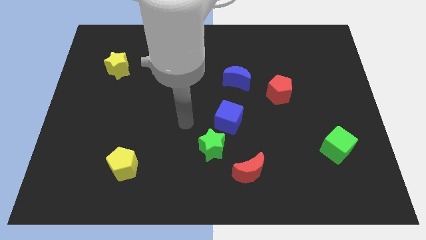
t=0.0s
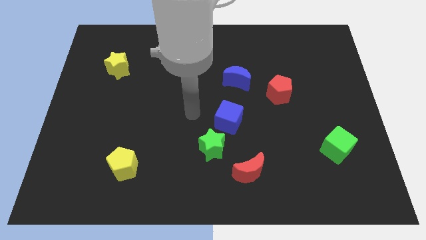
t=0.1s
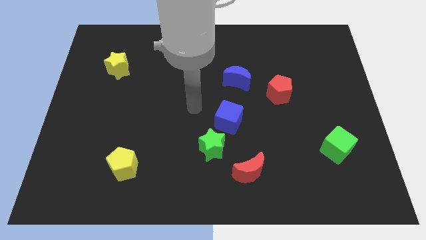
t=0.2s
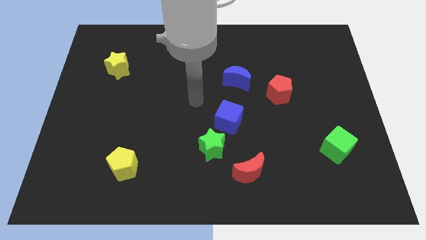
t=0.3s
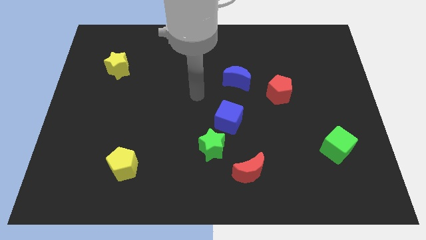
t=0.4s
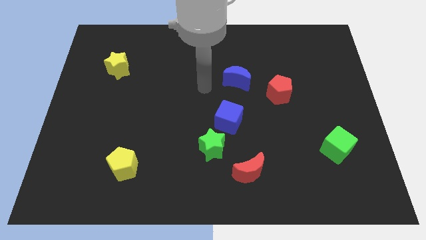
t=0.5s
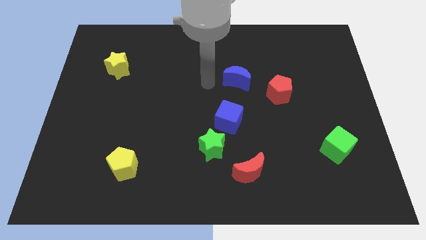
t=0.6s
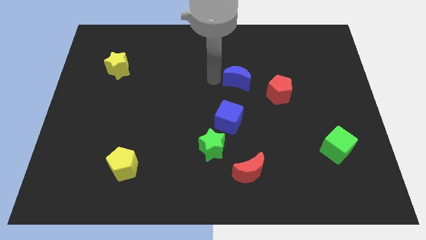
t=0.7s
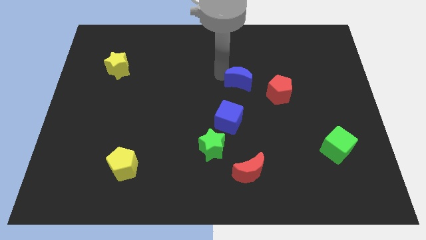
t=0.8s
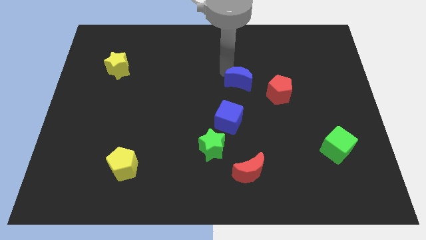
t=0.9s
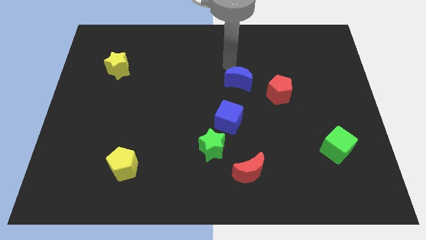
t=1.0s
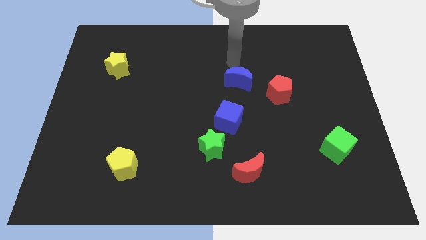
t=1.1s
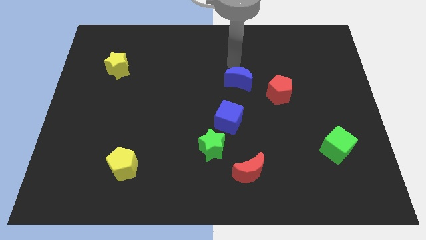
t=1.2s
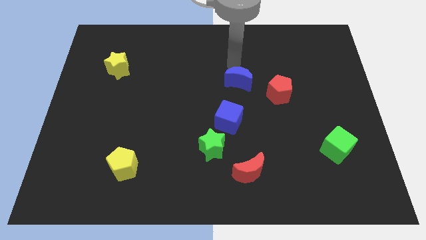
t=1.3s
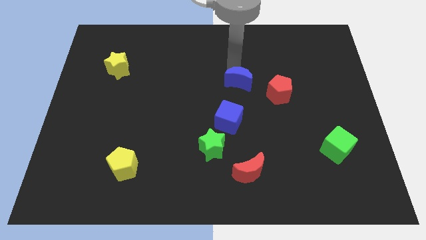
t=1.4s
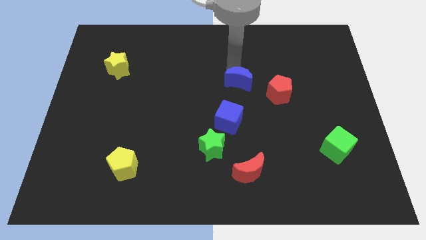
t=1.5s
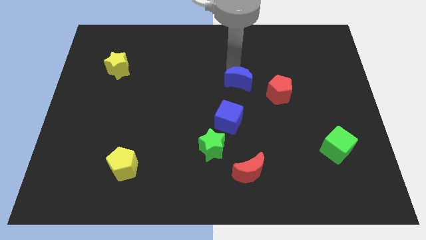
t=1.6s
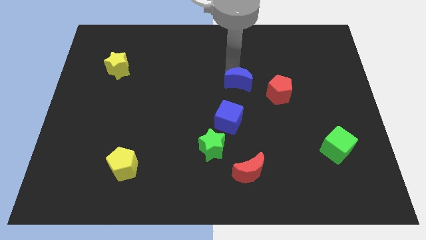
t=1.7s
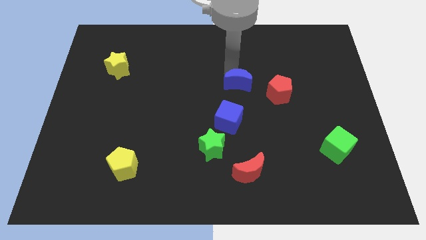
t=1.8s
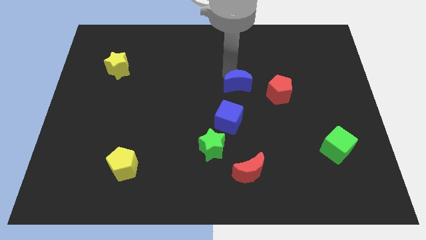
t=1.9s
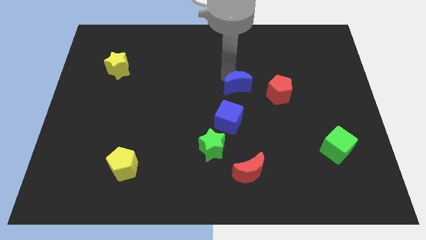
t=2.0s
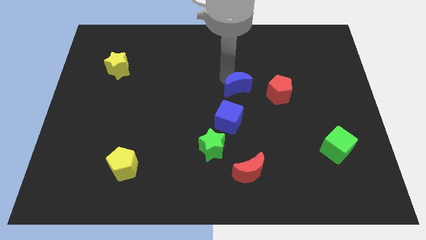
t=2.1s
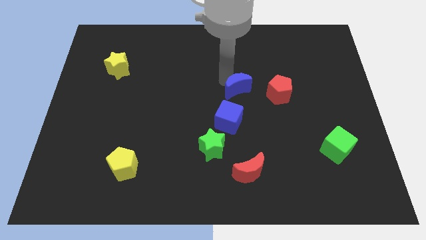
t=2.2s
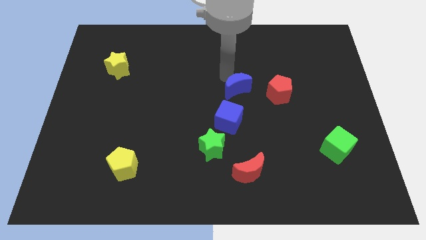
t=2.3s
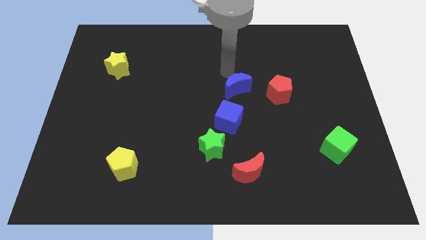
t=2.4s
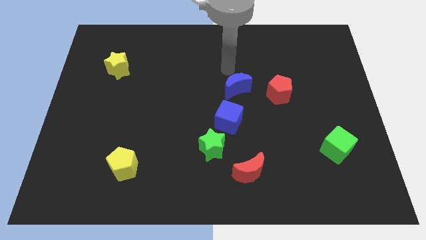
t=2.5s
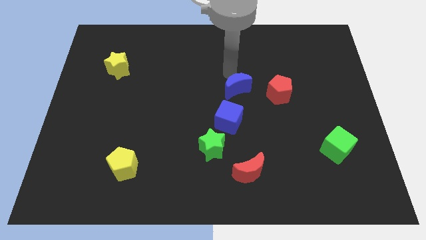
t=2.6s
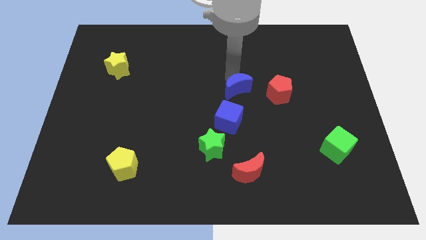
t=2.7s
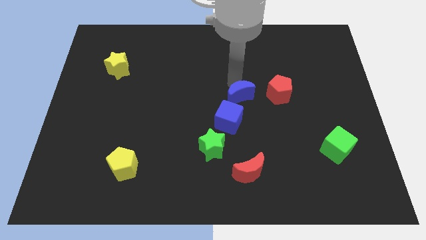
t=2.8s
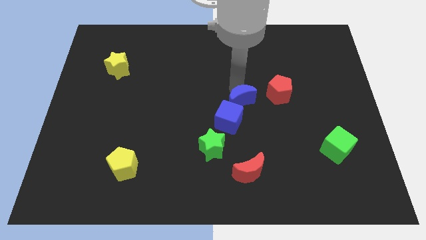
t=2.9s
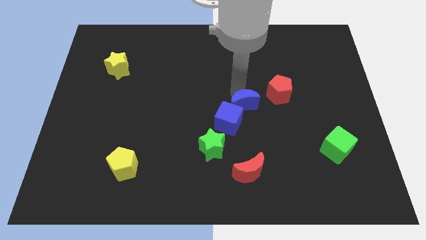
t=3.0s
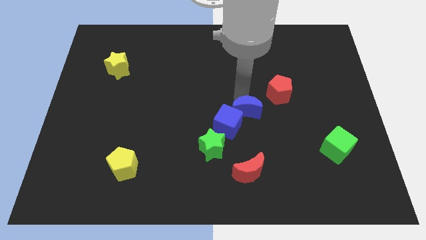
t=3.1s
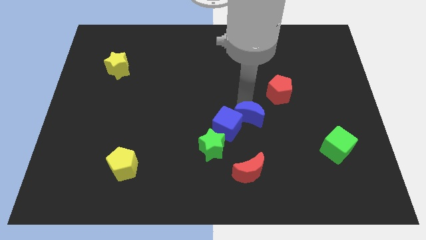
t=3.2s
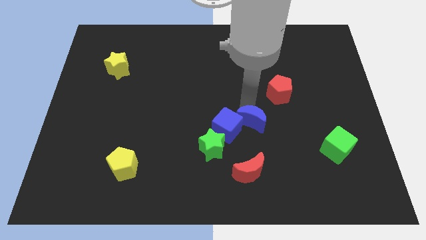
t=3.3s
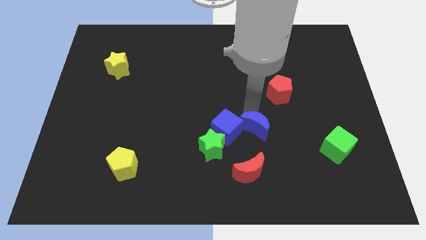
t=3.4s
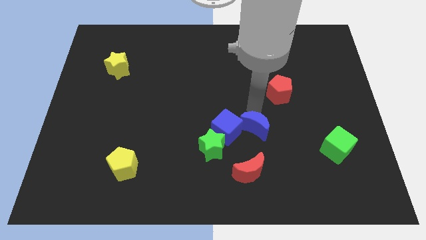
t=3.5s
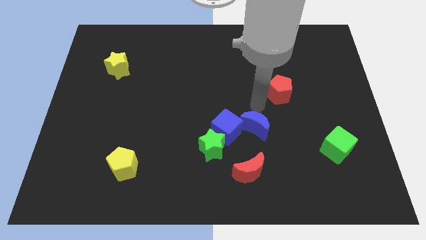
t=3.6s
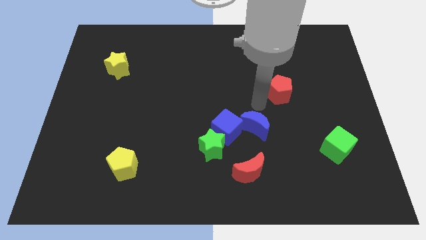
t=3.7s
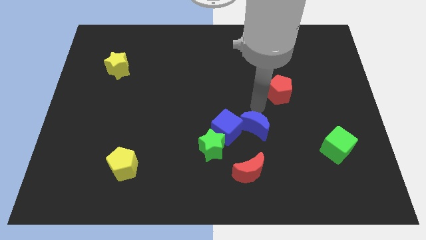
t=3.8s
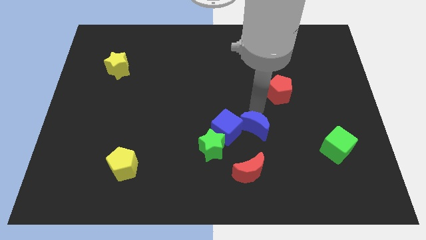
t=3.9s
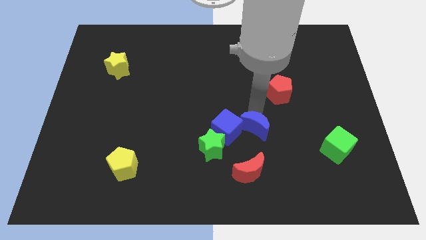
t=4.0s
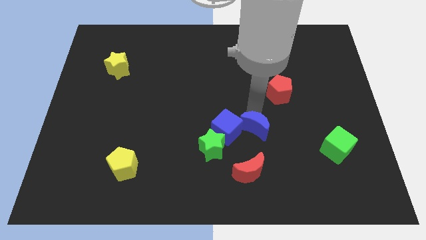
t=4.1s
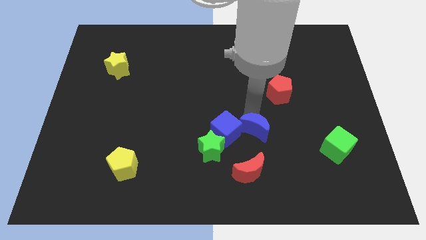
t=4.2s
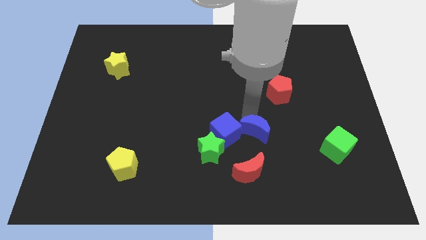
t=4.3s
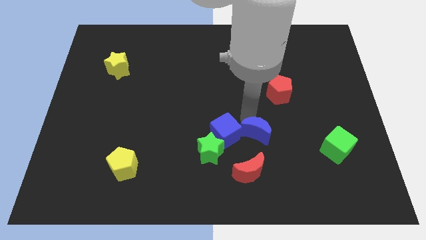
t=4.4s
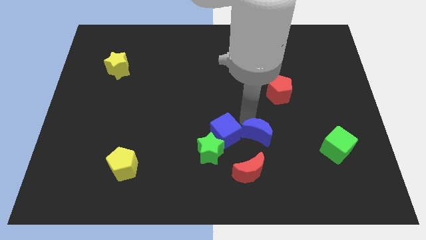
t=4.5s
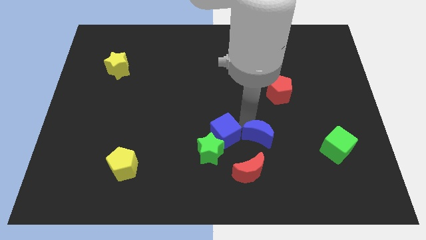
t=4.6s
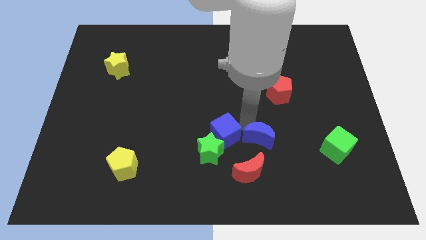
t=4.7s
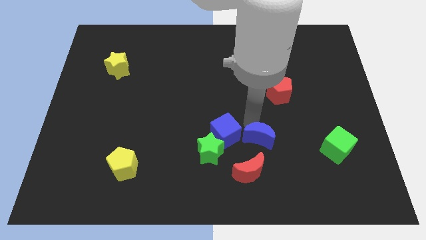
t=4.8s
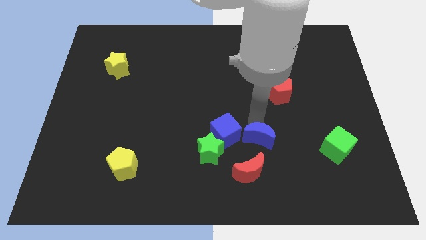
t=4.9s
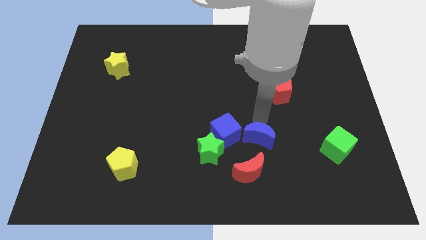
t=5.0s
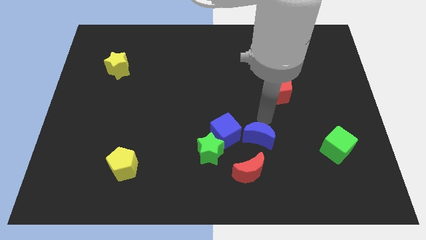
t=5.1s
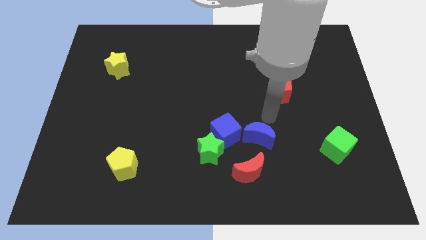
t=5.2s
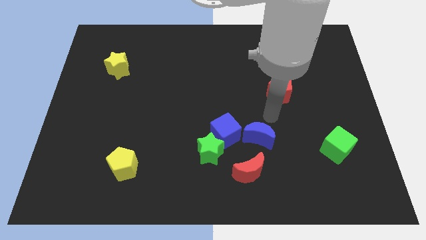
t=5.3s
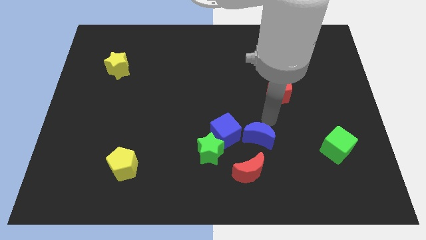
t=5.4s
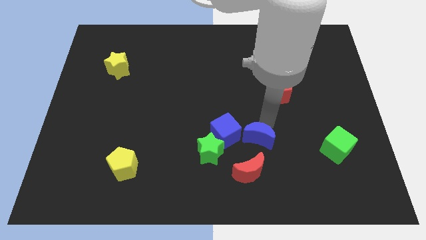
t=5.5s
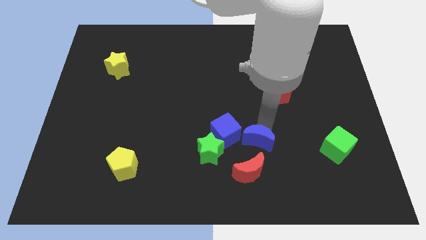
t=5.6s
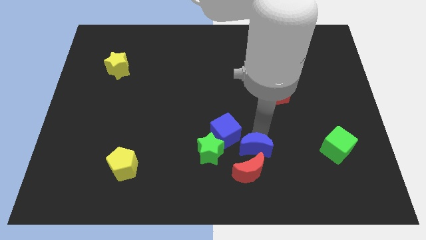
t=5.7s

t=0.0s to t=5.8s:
move the blue moon next to the red moon

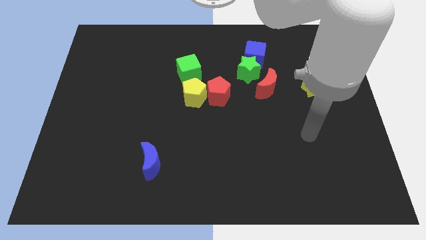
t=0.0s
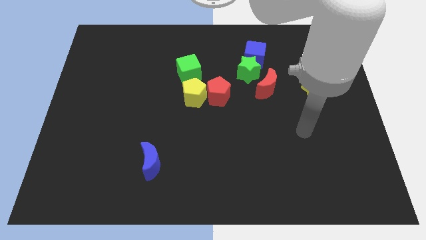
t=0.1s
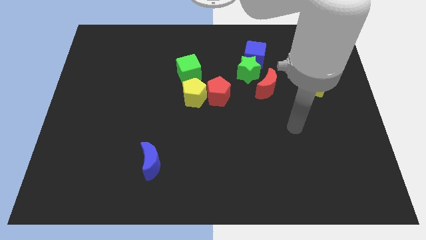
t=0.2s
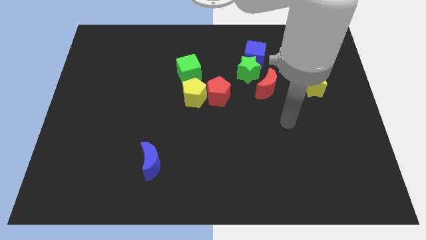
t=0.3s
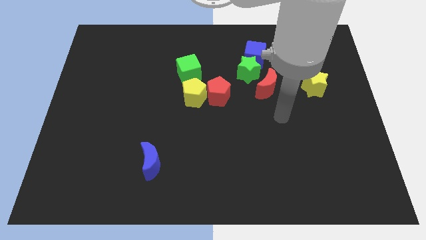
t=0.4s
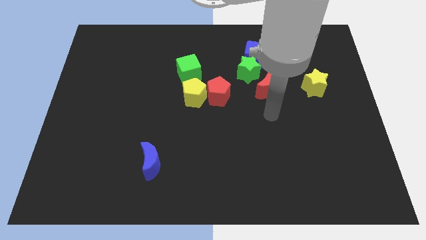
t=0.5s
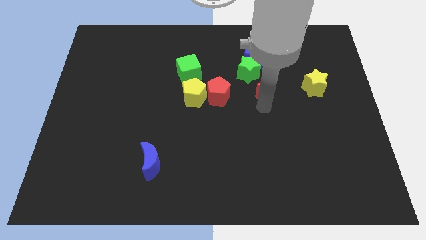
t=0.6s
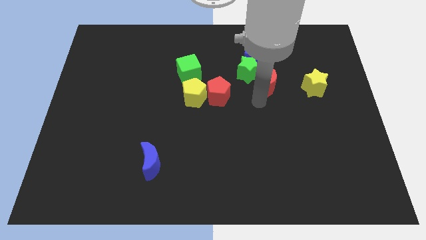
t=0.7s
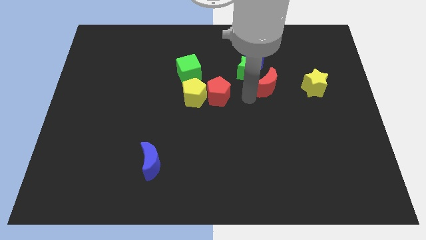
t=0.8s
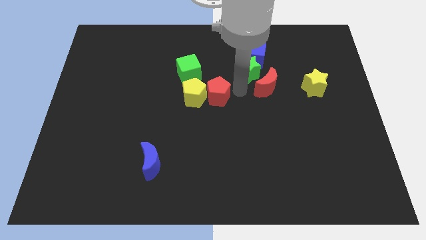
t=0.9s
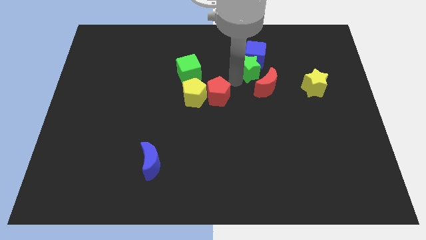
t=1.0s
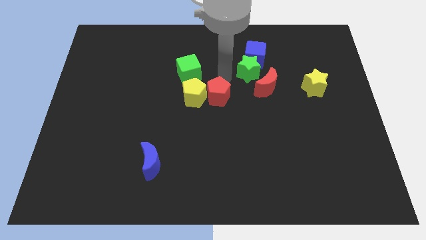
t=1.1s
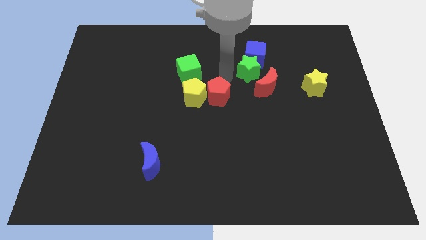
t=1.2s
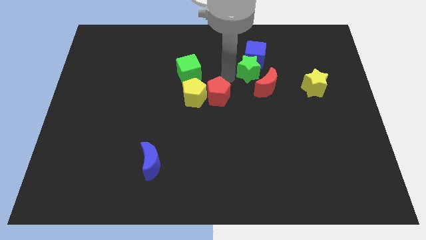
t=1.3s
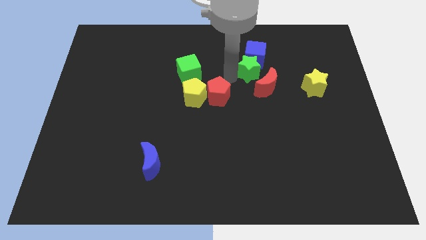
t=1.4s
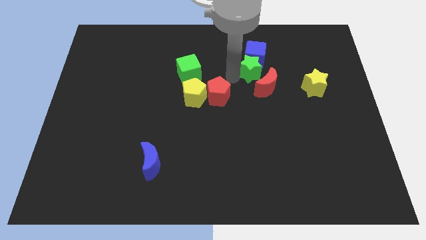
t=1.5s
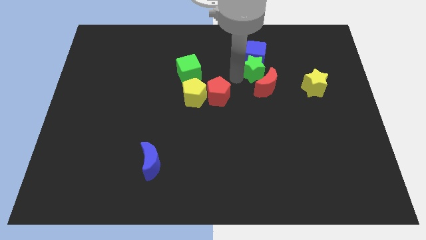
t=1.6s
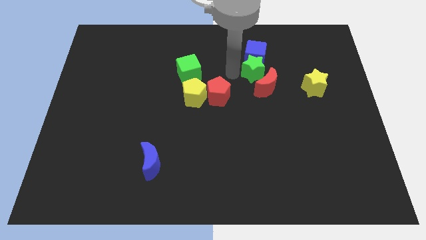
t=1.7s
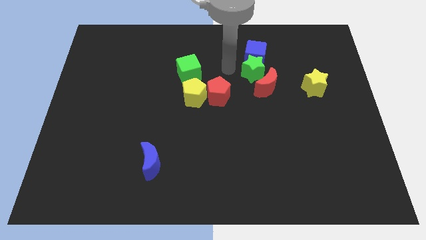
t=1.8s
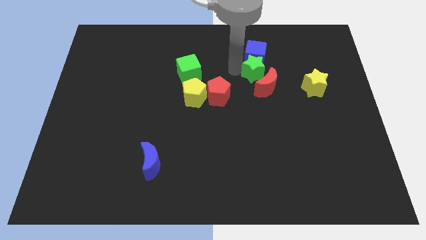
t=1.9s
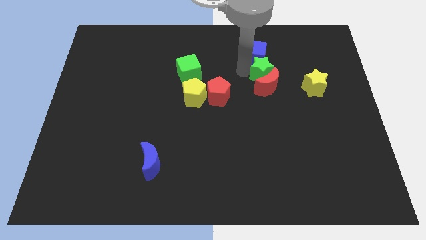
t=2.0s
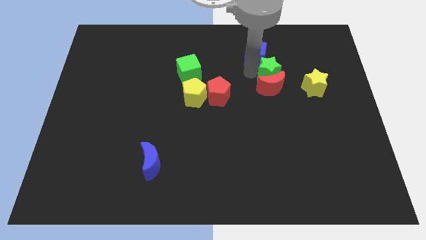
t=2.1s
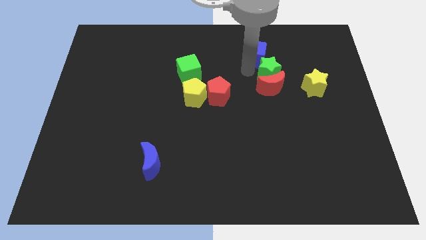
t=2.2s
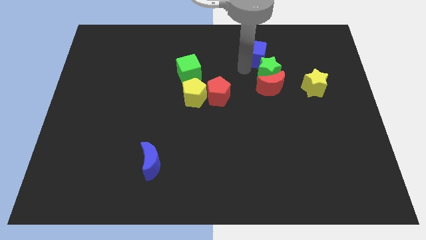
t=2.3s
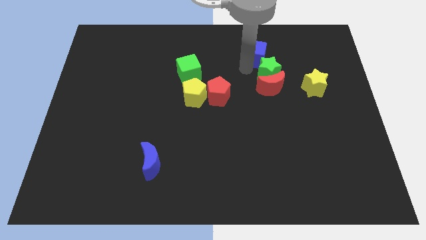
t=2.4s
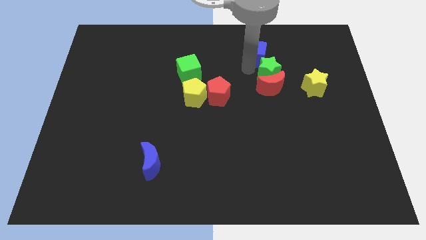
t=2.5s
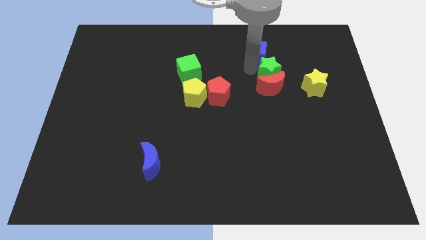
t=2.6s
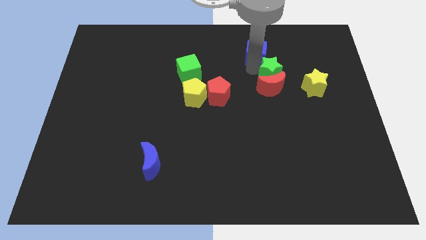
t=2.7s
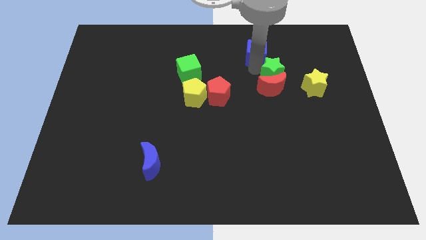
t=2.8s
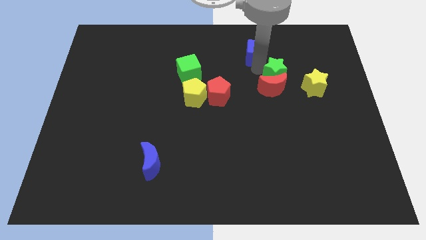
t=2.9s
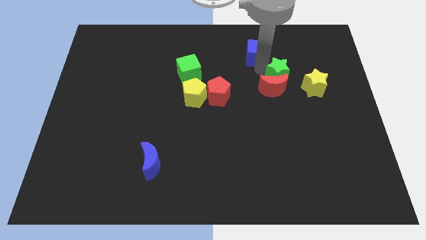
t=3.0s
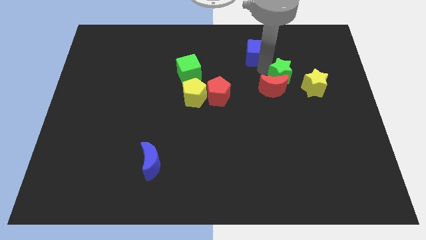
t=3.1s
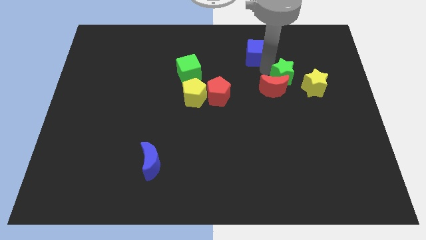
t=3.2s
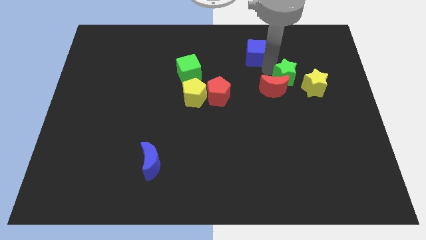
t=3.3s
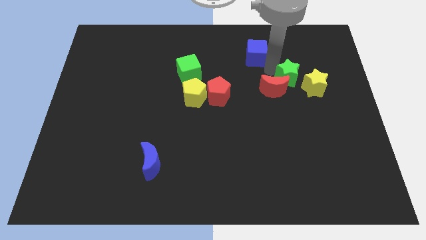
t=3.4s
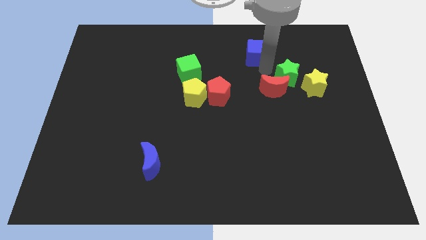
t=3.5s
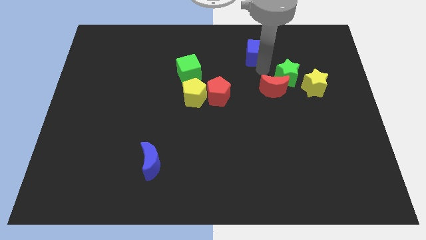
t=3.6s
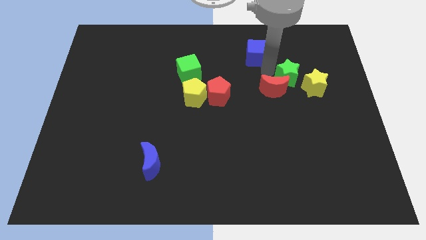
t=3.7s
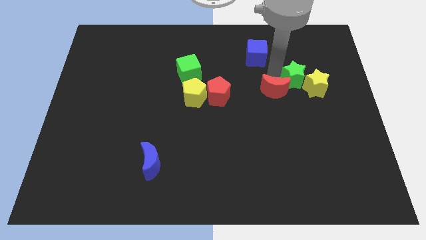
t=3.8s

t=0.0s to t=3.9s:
push the green star close to the yellow star
